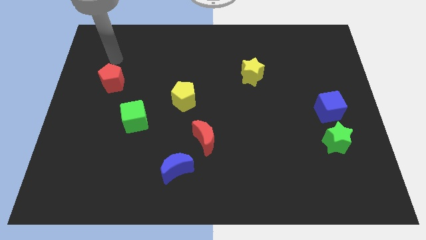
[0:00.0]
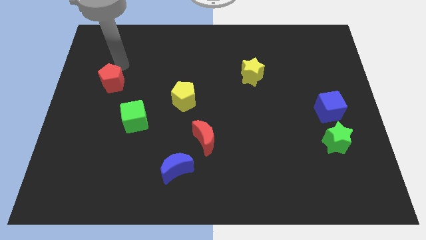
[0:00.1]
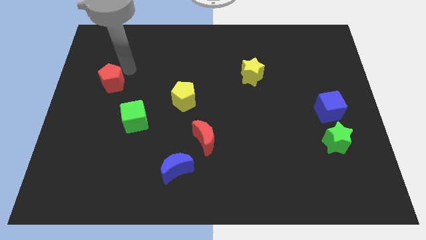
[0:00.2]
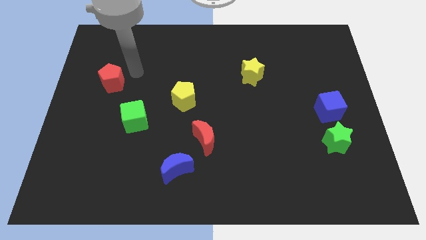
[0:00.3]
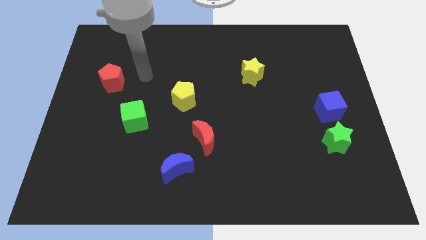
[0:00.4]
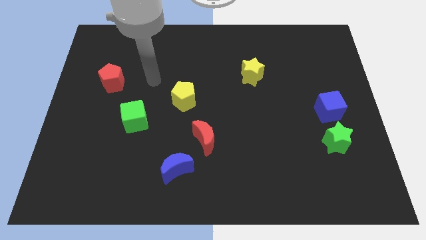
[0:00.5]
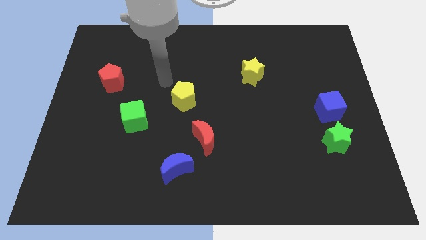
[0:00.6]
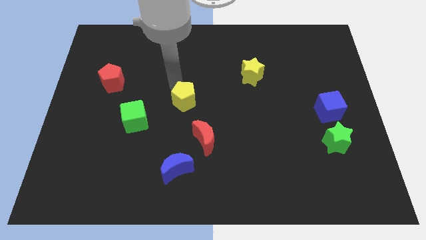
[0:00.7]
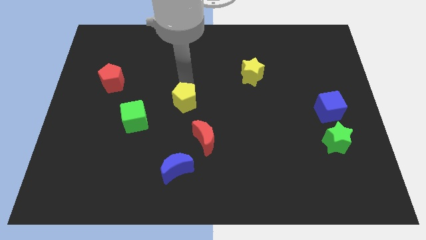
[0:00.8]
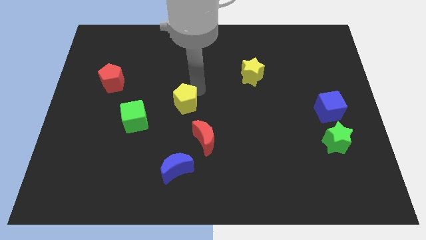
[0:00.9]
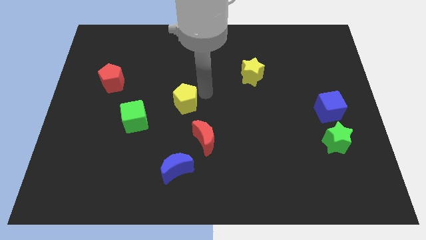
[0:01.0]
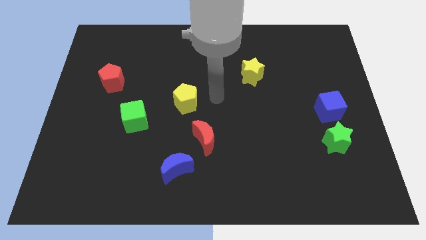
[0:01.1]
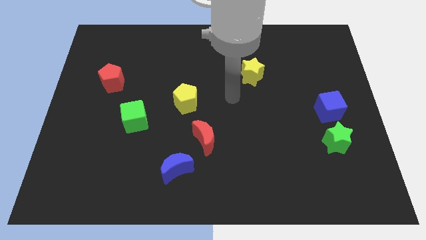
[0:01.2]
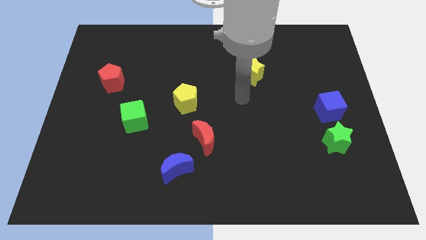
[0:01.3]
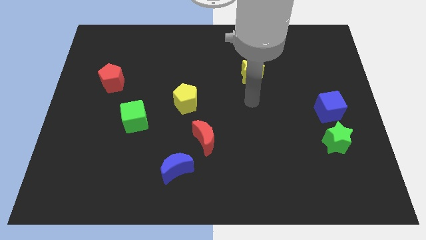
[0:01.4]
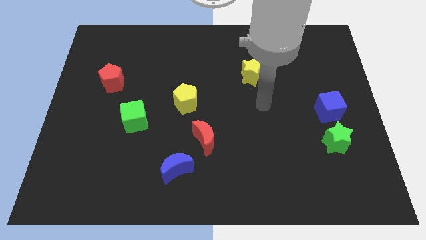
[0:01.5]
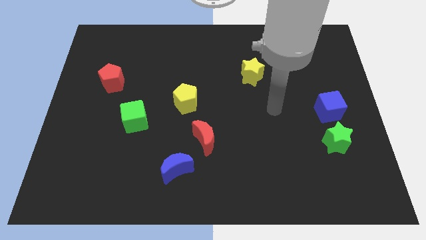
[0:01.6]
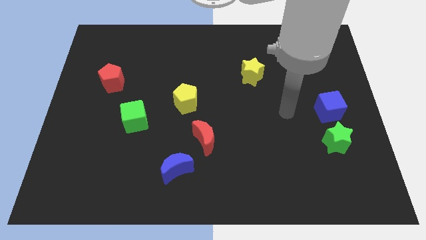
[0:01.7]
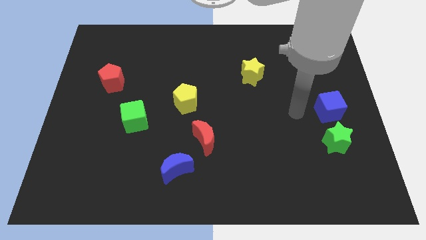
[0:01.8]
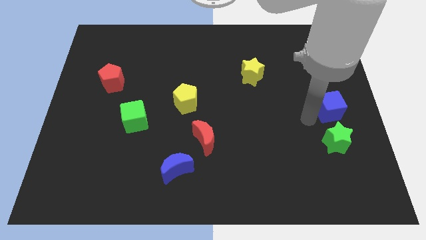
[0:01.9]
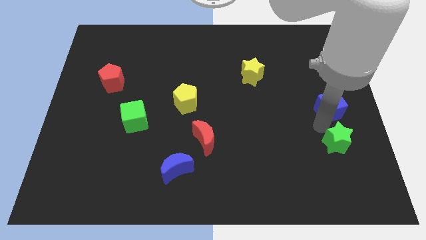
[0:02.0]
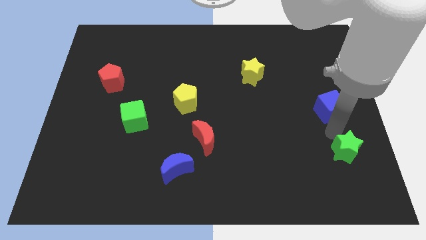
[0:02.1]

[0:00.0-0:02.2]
move the blue cube away from the green star

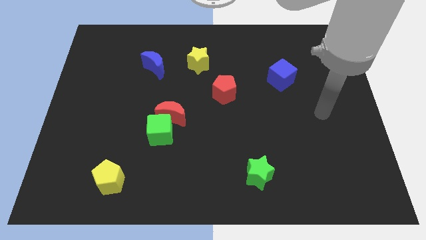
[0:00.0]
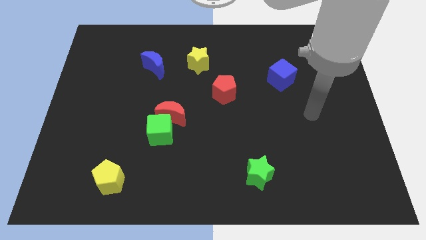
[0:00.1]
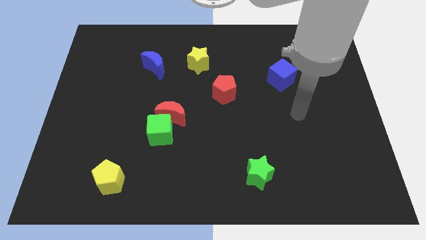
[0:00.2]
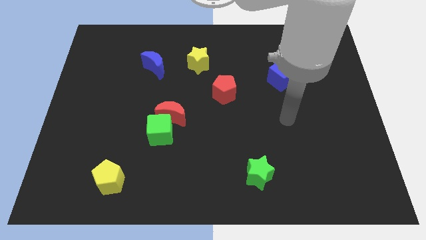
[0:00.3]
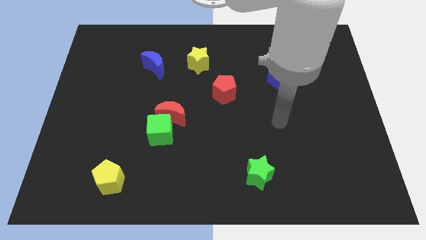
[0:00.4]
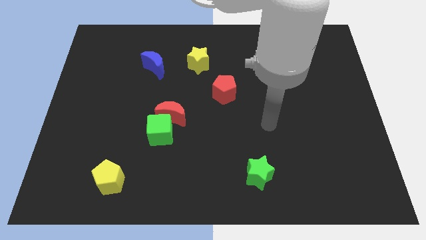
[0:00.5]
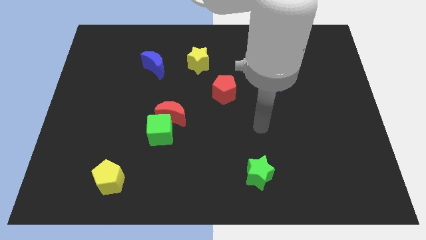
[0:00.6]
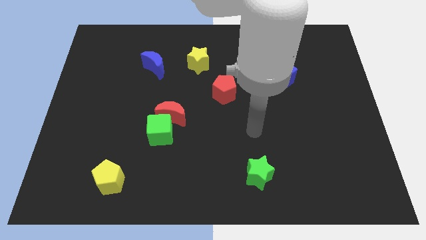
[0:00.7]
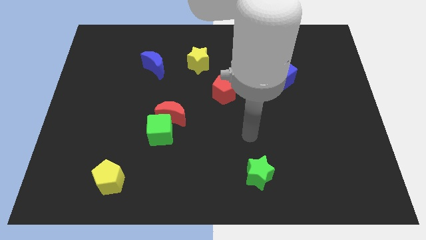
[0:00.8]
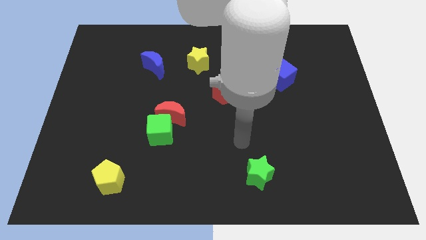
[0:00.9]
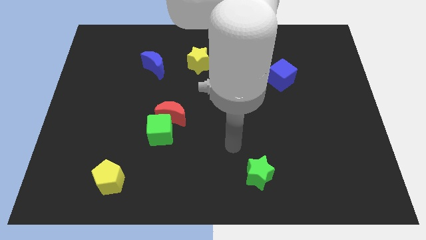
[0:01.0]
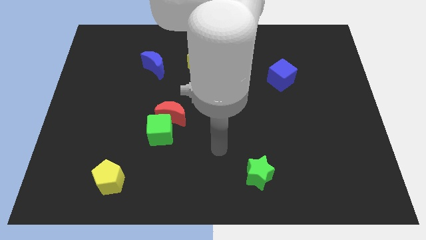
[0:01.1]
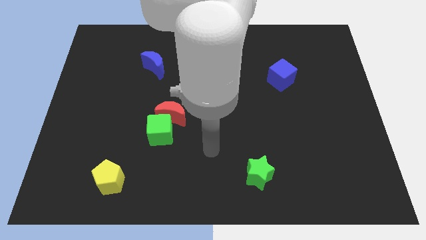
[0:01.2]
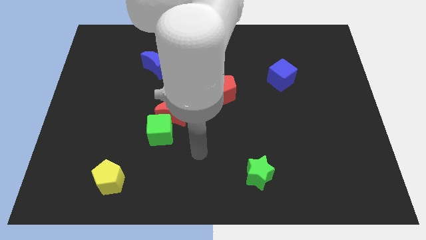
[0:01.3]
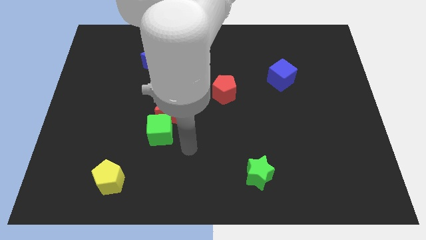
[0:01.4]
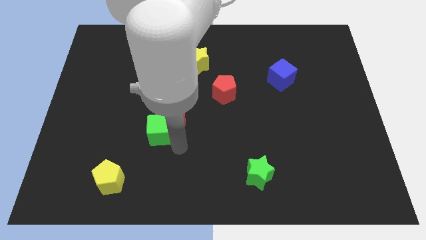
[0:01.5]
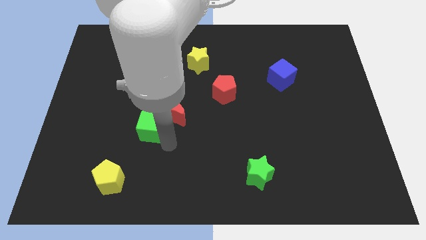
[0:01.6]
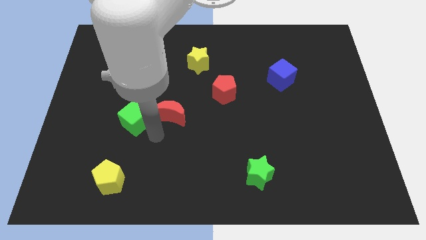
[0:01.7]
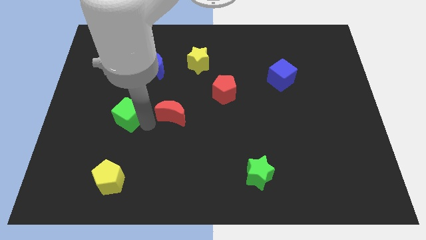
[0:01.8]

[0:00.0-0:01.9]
move the red moon away from the green cube

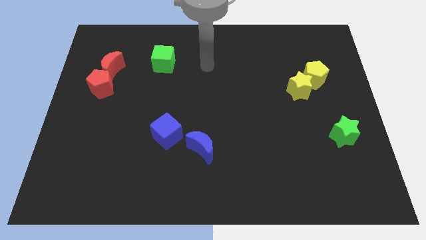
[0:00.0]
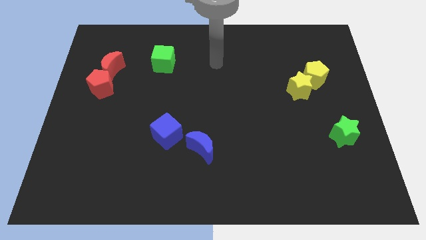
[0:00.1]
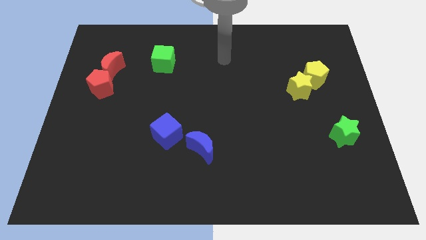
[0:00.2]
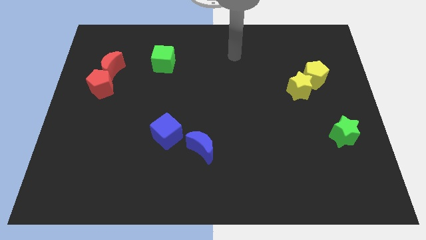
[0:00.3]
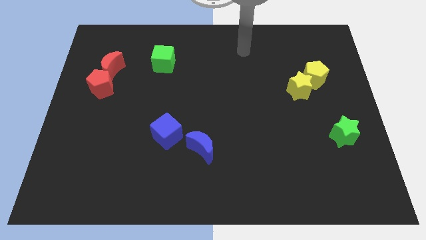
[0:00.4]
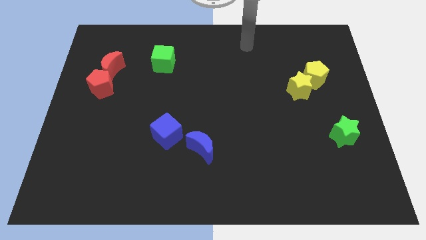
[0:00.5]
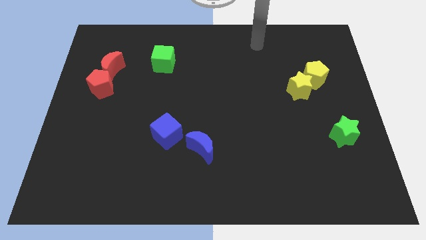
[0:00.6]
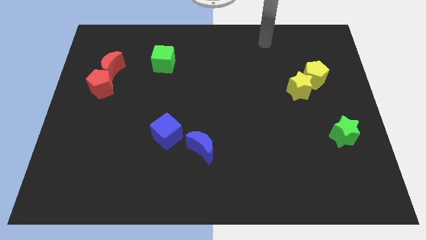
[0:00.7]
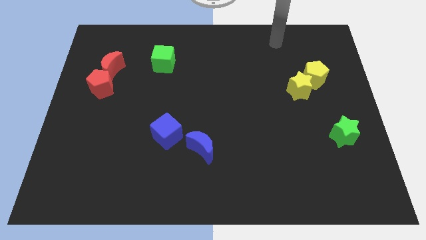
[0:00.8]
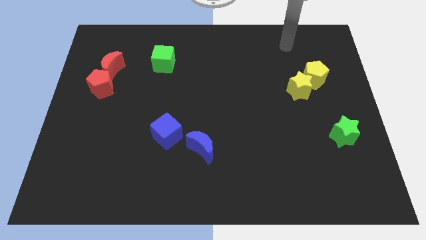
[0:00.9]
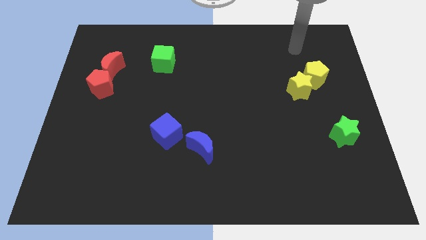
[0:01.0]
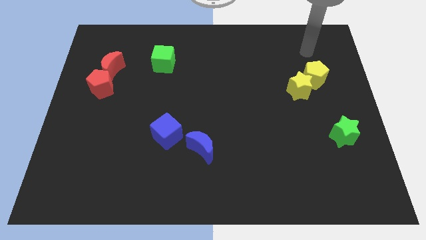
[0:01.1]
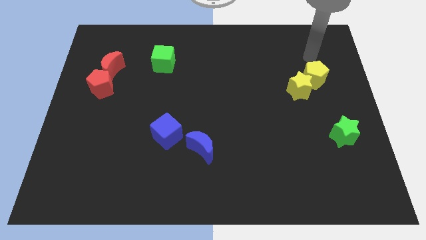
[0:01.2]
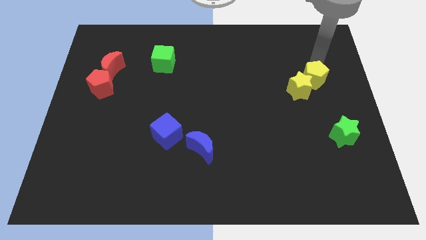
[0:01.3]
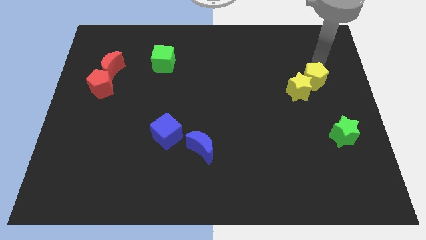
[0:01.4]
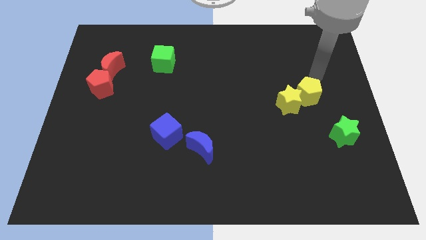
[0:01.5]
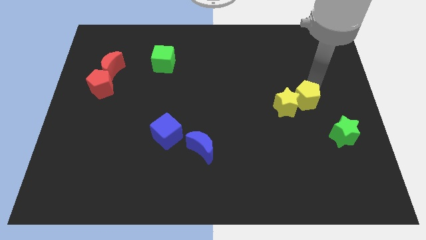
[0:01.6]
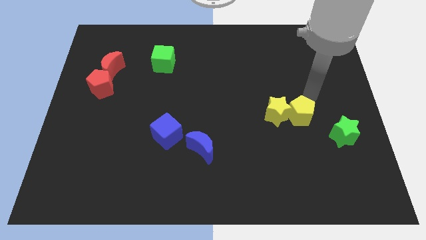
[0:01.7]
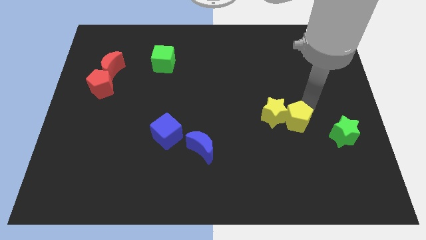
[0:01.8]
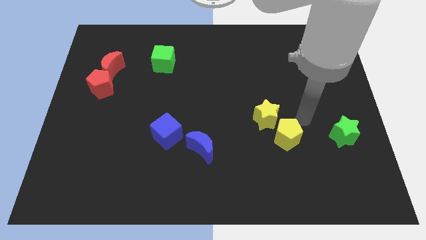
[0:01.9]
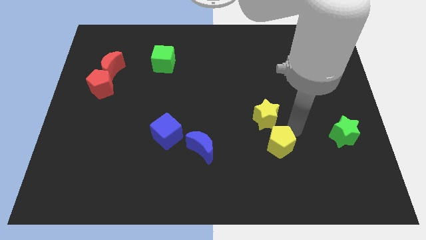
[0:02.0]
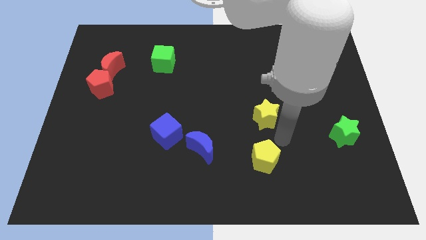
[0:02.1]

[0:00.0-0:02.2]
pull the yellow star apart from the yellow pentagon

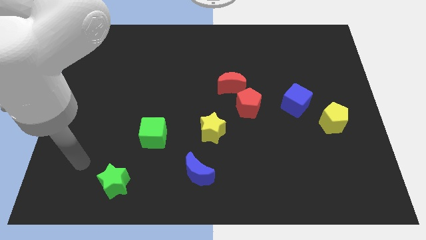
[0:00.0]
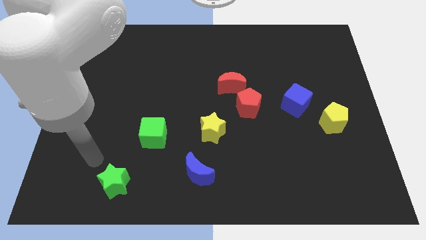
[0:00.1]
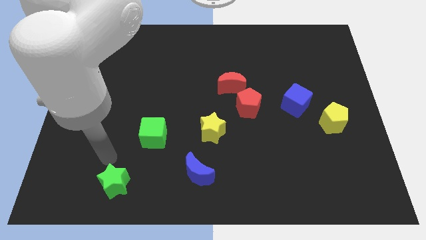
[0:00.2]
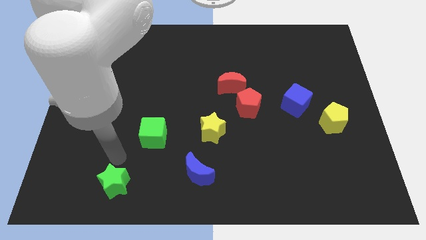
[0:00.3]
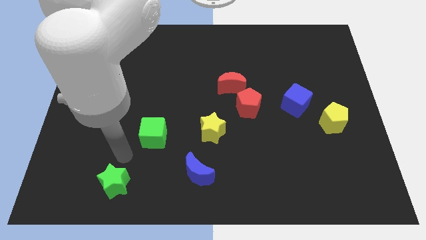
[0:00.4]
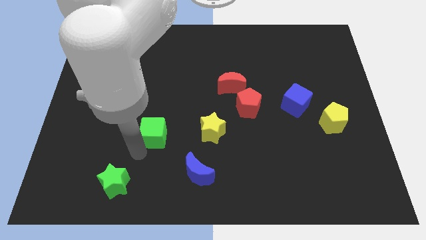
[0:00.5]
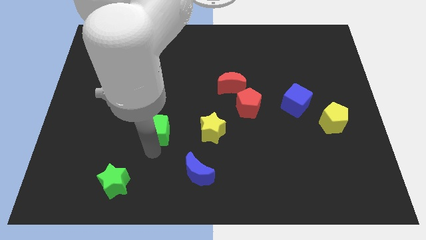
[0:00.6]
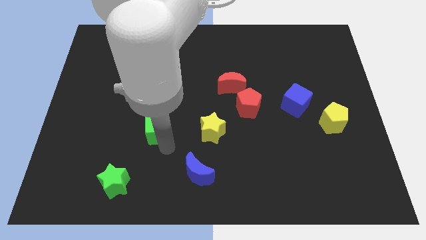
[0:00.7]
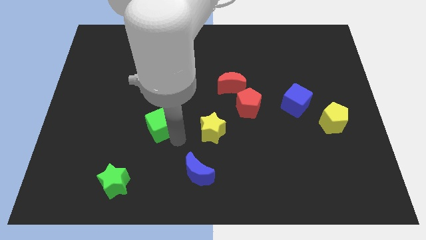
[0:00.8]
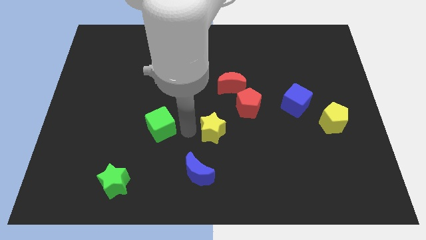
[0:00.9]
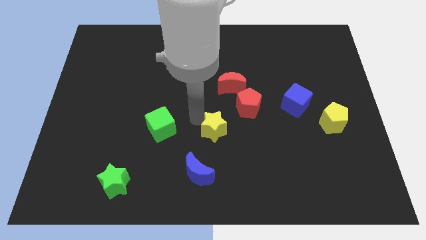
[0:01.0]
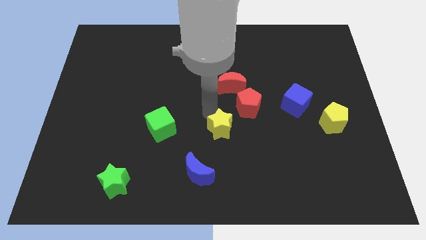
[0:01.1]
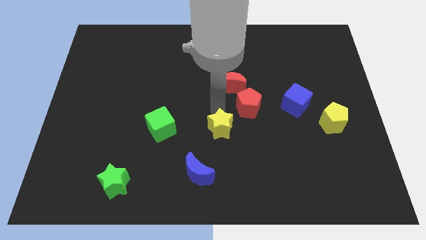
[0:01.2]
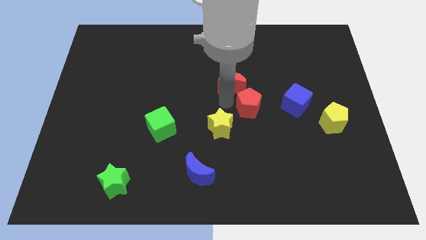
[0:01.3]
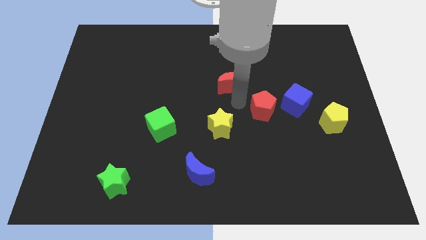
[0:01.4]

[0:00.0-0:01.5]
move the red moon away from the red pentagon

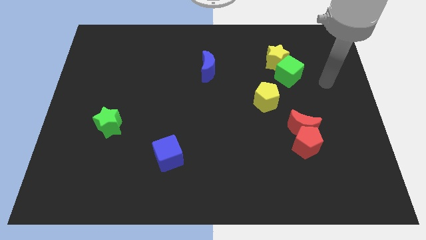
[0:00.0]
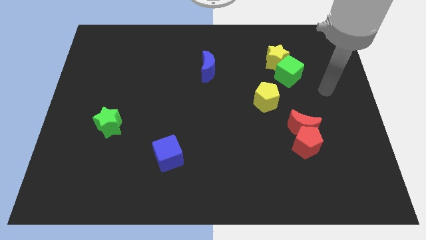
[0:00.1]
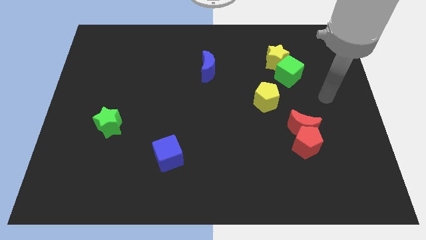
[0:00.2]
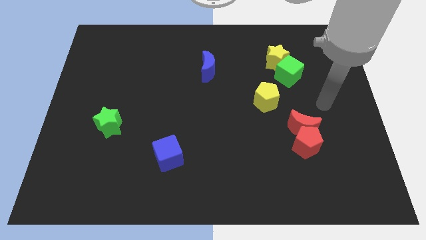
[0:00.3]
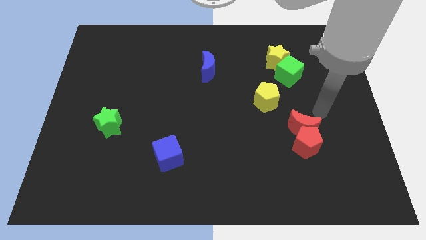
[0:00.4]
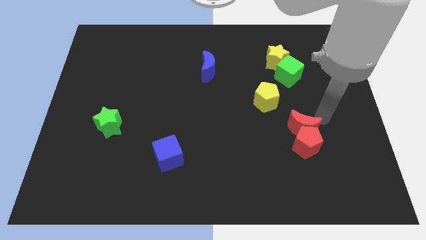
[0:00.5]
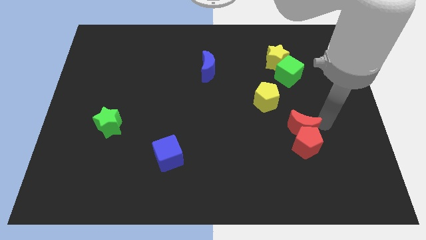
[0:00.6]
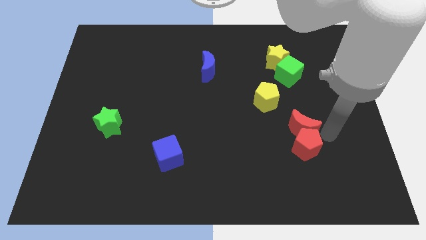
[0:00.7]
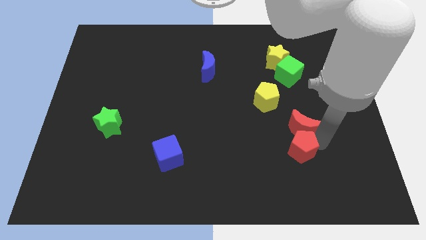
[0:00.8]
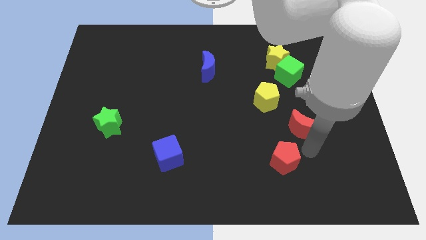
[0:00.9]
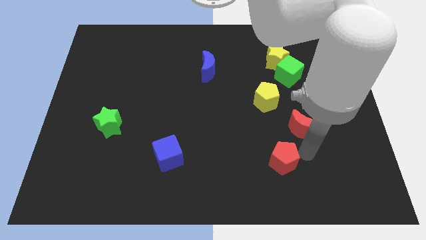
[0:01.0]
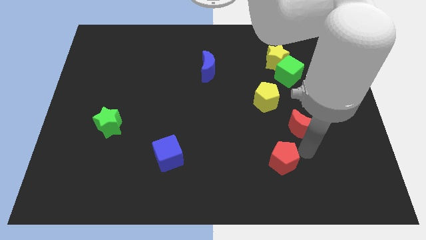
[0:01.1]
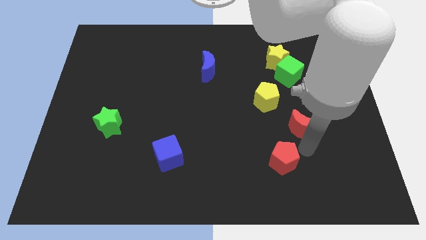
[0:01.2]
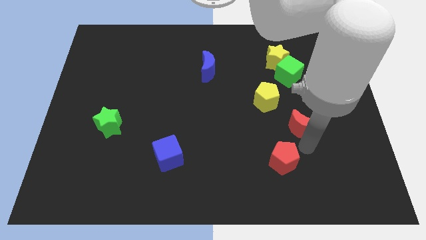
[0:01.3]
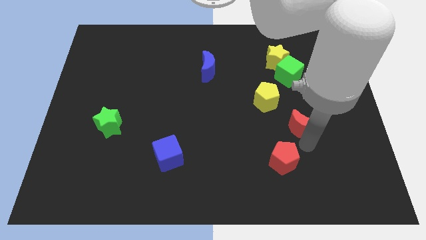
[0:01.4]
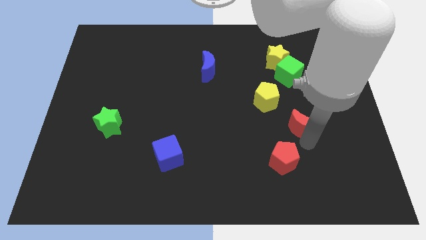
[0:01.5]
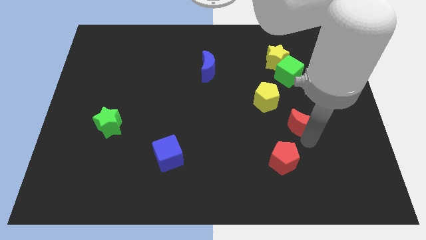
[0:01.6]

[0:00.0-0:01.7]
pull the red moon apart from the red pentagon
